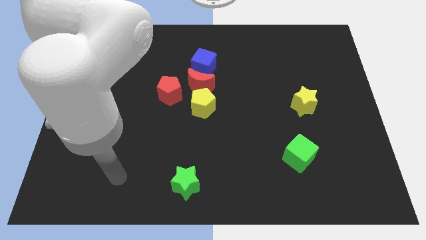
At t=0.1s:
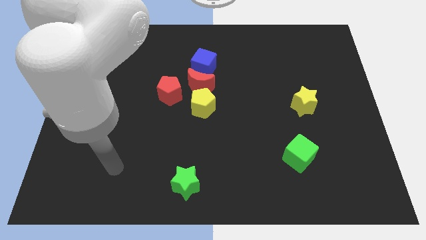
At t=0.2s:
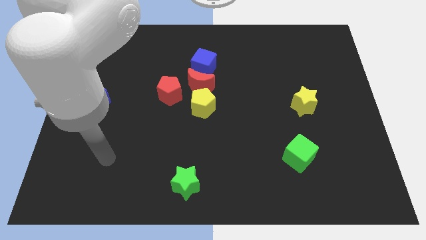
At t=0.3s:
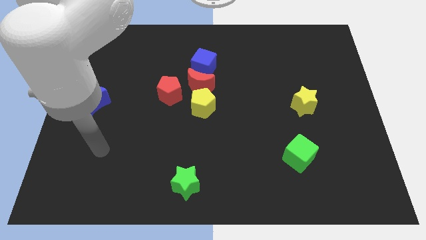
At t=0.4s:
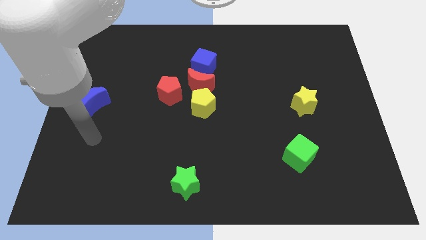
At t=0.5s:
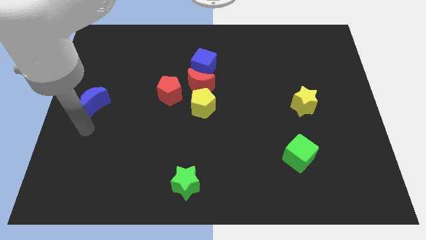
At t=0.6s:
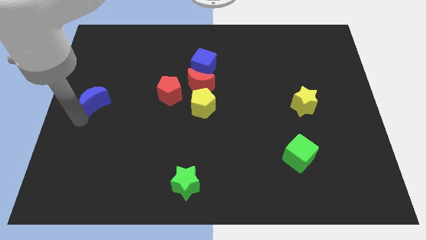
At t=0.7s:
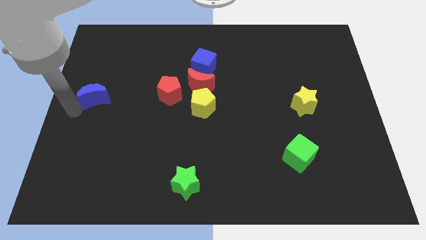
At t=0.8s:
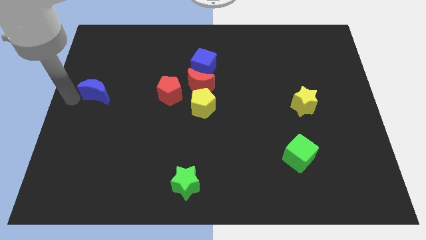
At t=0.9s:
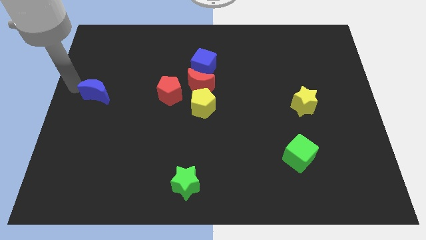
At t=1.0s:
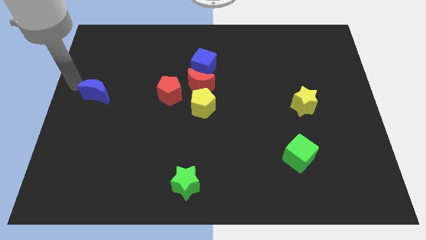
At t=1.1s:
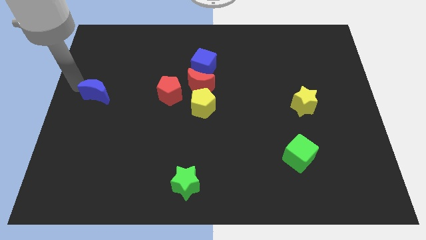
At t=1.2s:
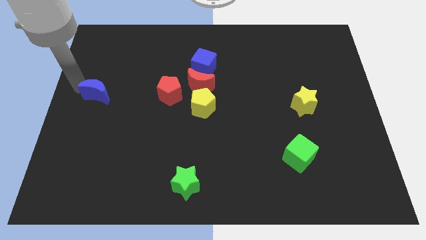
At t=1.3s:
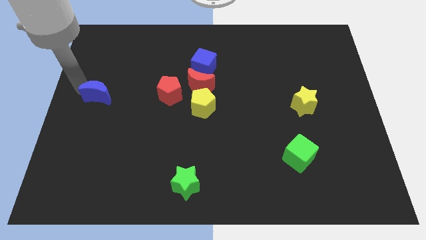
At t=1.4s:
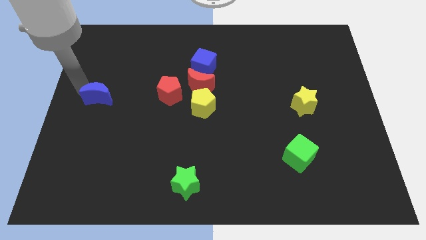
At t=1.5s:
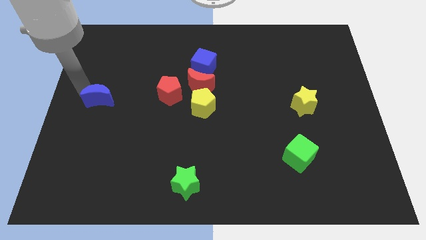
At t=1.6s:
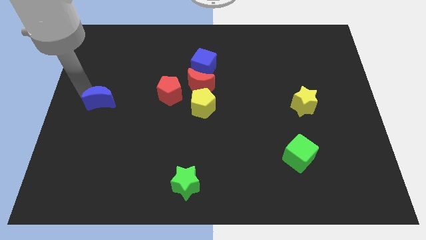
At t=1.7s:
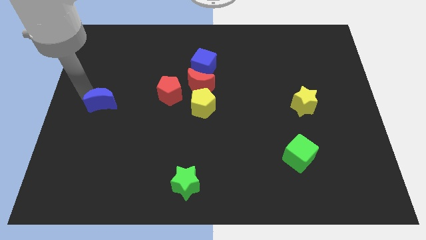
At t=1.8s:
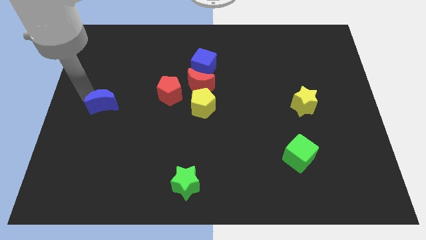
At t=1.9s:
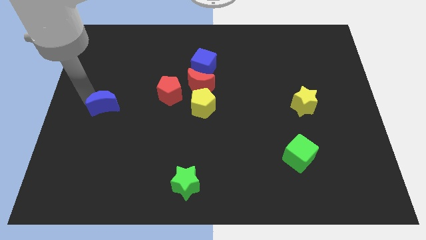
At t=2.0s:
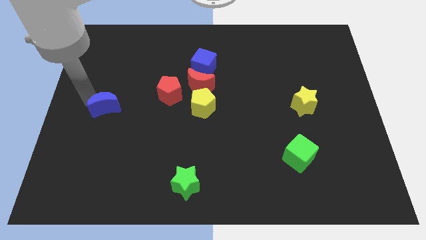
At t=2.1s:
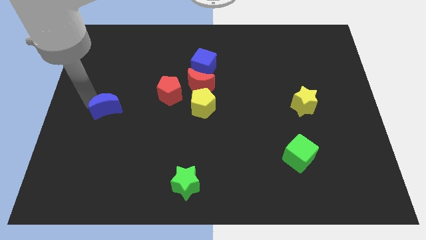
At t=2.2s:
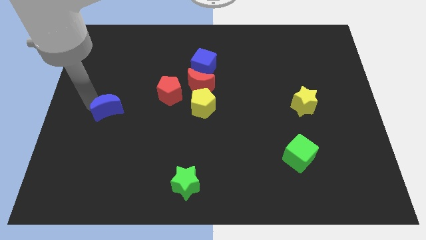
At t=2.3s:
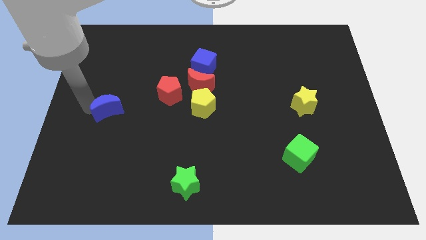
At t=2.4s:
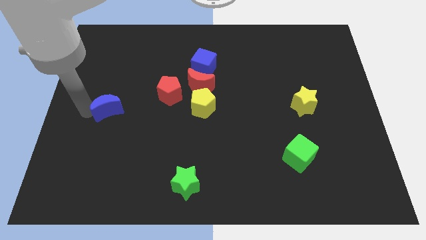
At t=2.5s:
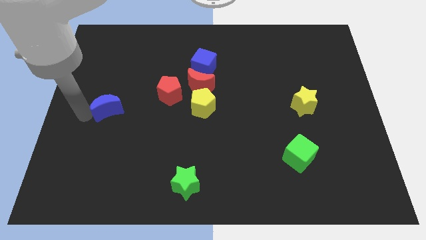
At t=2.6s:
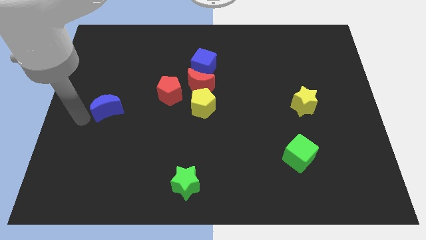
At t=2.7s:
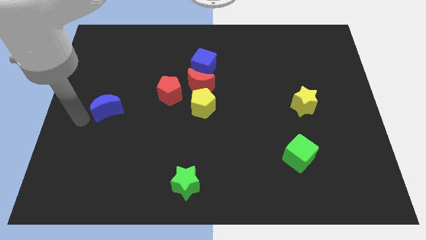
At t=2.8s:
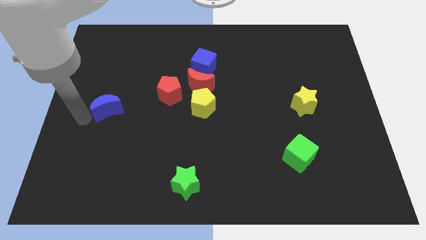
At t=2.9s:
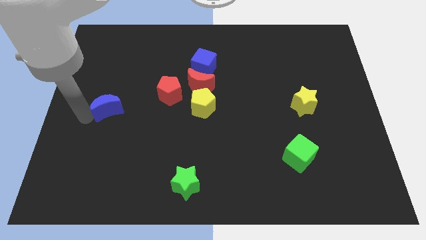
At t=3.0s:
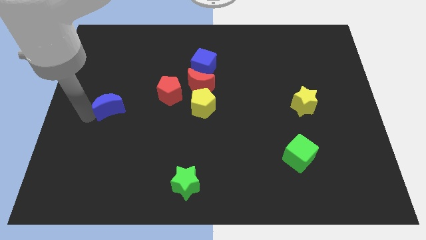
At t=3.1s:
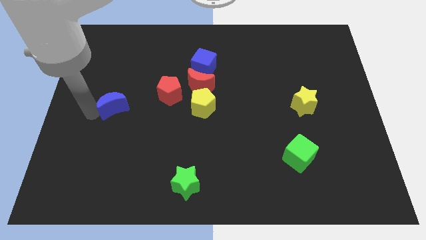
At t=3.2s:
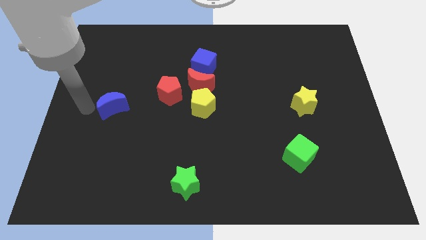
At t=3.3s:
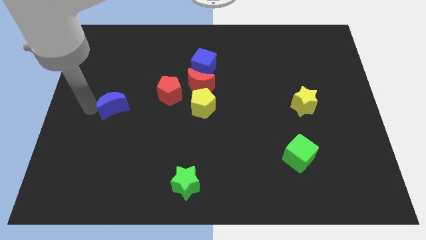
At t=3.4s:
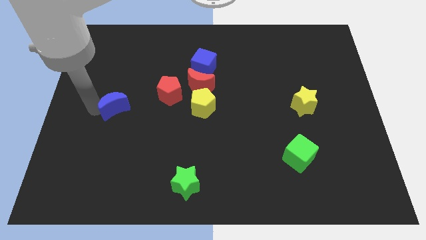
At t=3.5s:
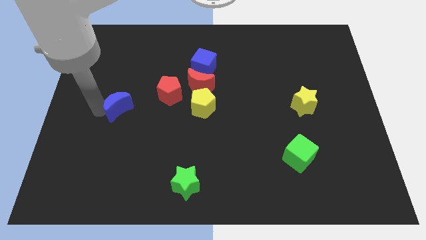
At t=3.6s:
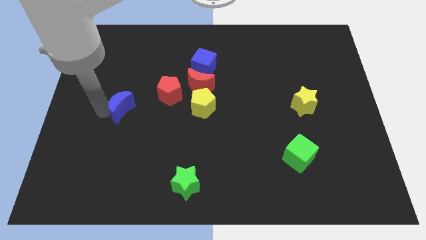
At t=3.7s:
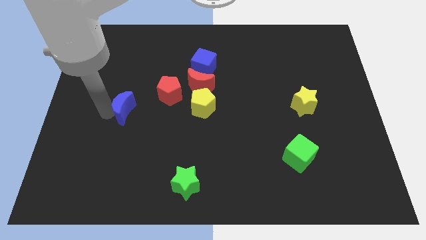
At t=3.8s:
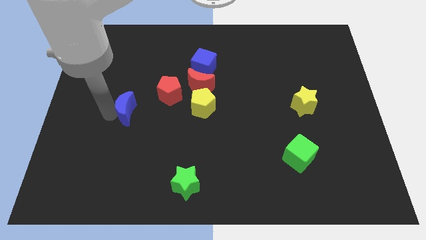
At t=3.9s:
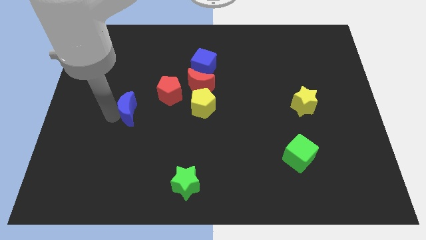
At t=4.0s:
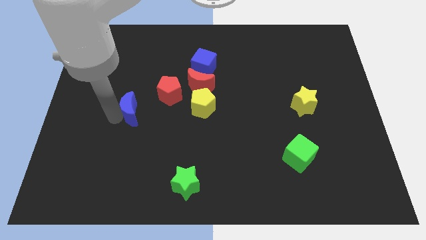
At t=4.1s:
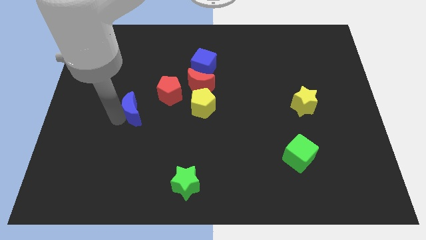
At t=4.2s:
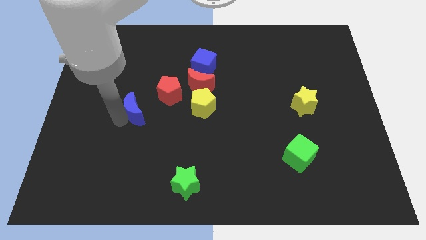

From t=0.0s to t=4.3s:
slide the blue moon just left of the yellow pentagon

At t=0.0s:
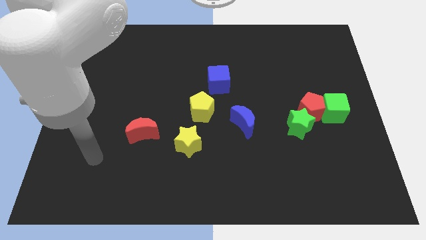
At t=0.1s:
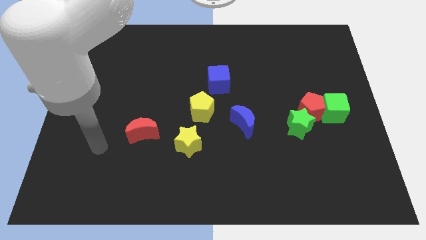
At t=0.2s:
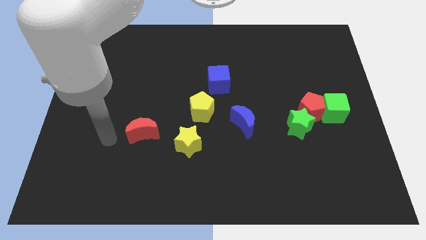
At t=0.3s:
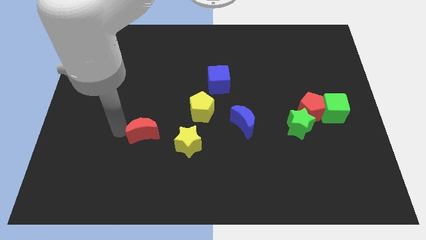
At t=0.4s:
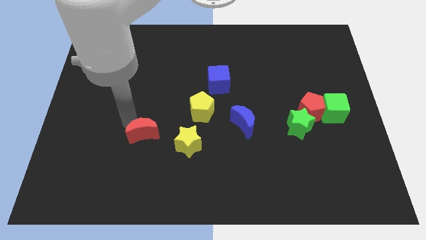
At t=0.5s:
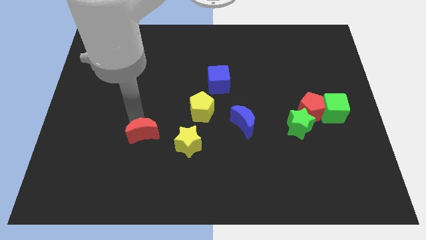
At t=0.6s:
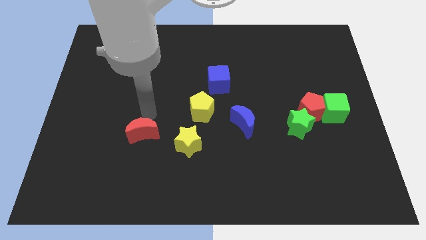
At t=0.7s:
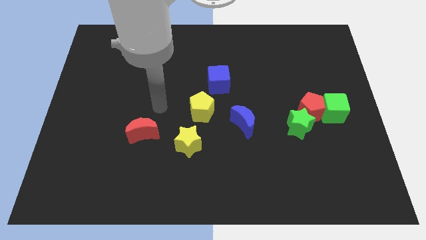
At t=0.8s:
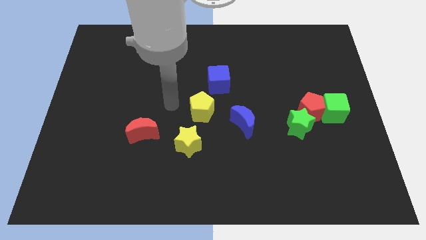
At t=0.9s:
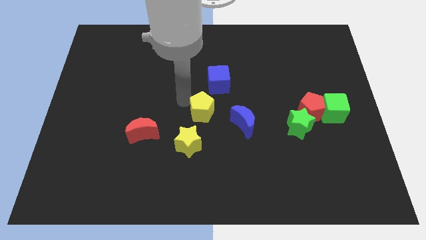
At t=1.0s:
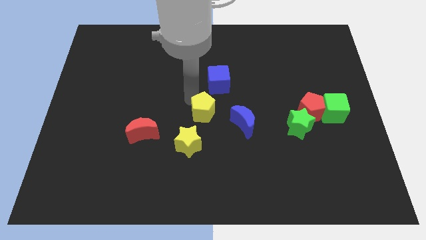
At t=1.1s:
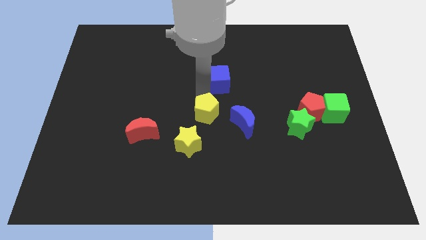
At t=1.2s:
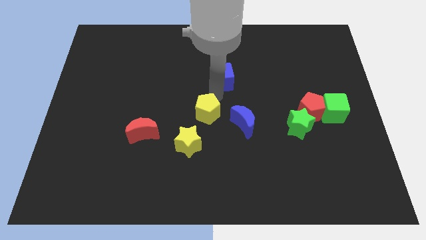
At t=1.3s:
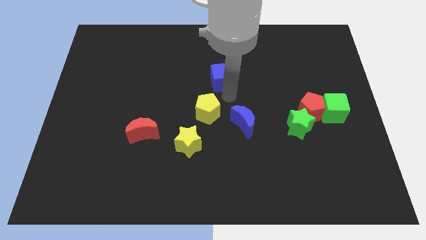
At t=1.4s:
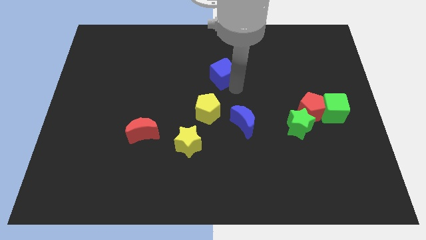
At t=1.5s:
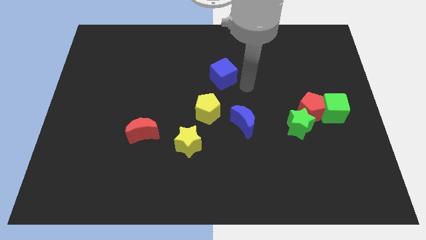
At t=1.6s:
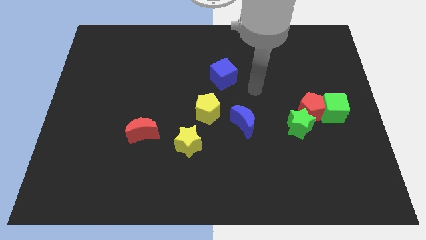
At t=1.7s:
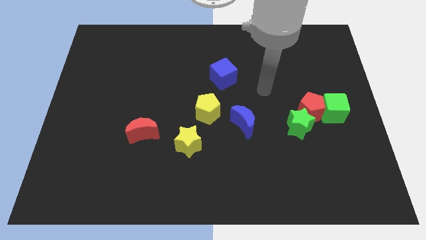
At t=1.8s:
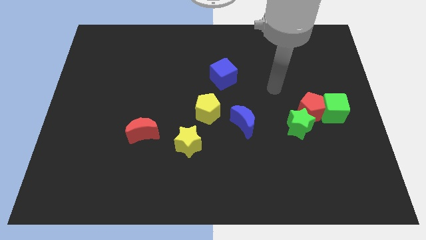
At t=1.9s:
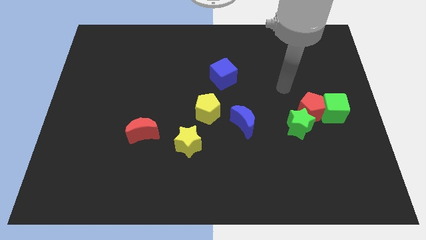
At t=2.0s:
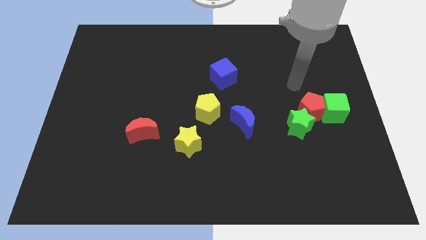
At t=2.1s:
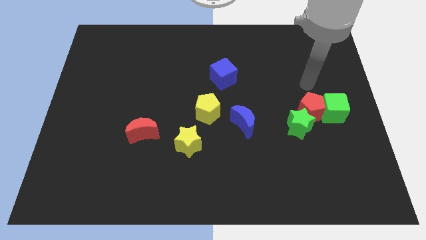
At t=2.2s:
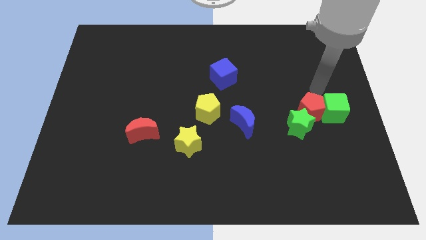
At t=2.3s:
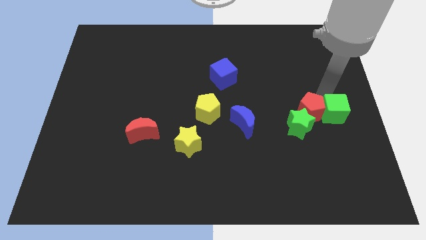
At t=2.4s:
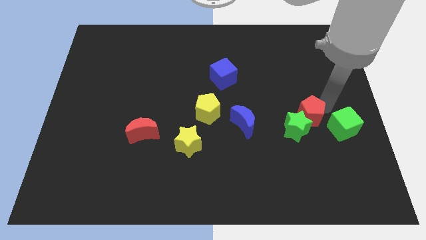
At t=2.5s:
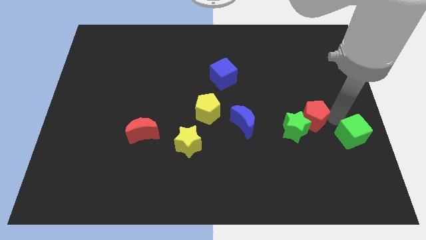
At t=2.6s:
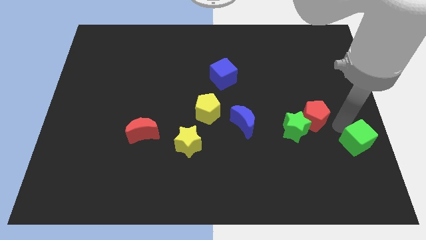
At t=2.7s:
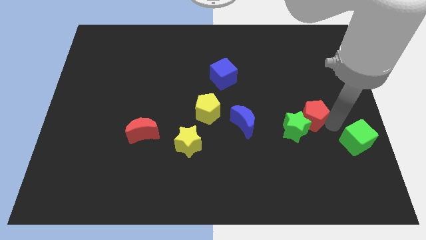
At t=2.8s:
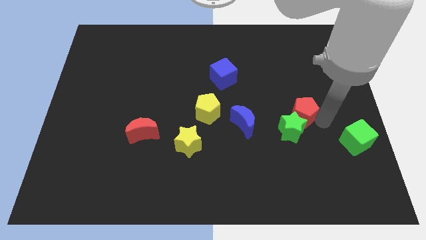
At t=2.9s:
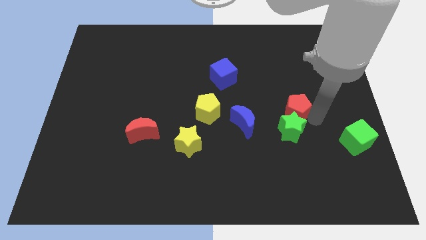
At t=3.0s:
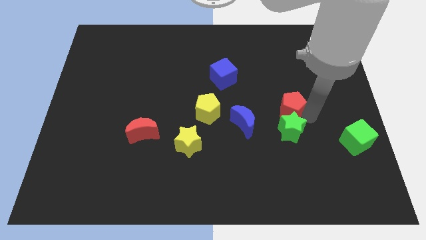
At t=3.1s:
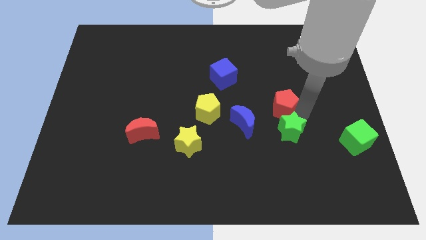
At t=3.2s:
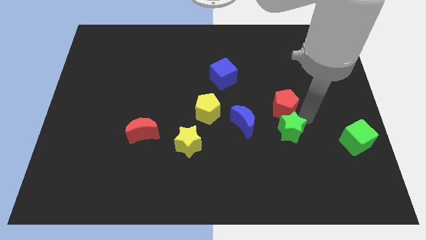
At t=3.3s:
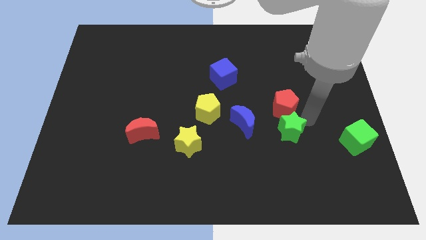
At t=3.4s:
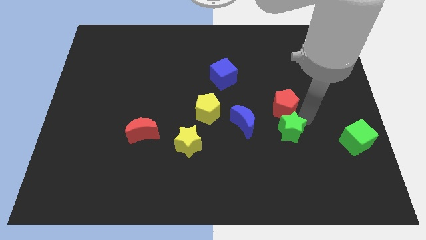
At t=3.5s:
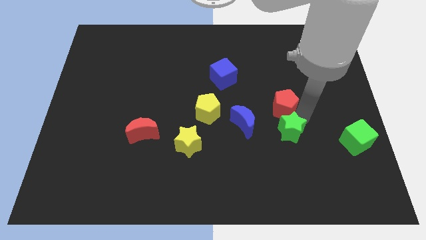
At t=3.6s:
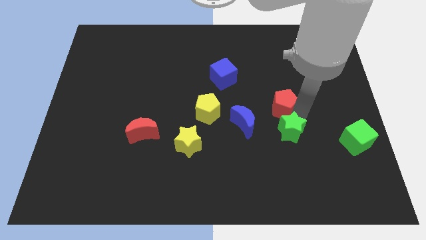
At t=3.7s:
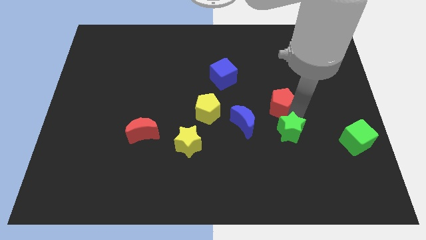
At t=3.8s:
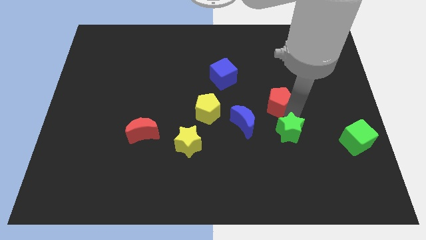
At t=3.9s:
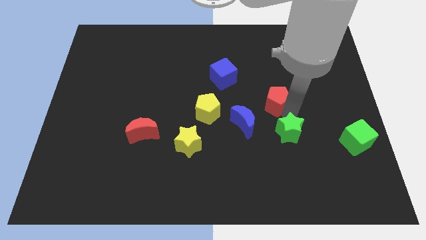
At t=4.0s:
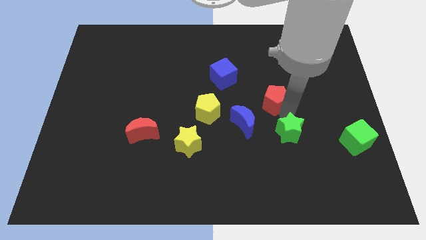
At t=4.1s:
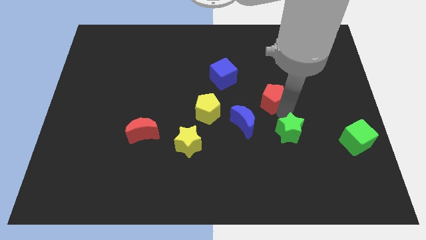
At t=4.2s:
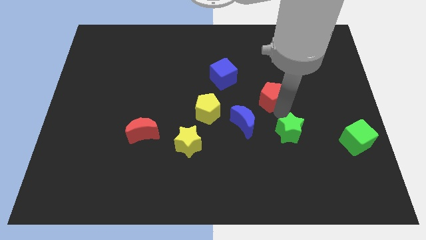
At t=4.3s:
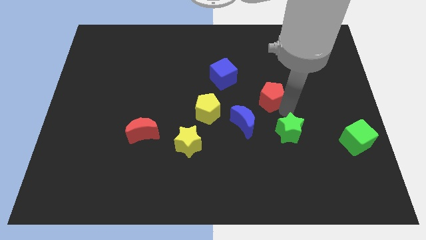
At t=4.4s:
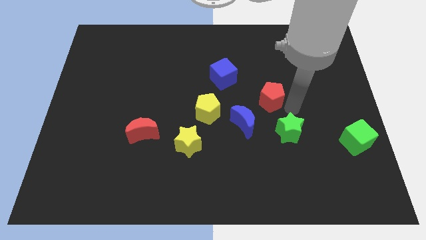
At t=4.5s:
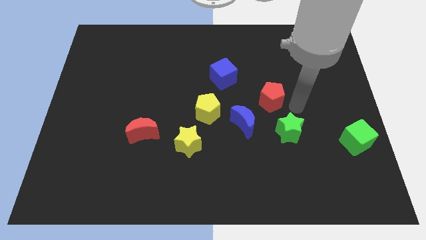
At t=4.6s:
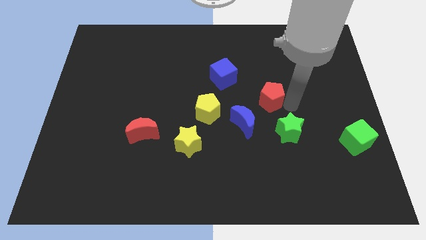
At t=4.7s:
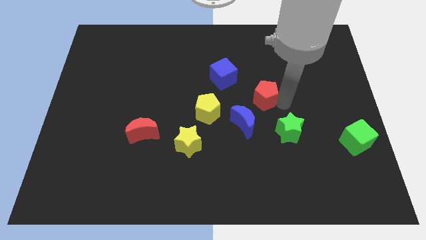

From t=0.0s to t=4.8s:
move the red pentagon to the bottom right of the blue cube
